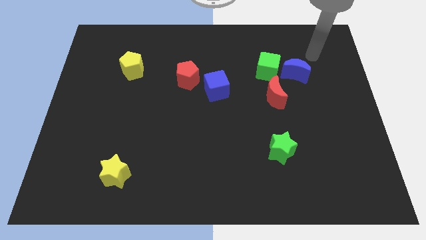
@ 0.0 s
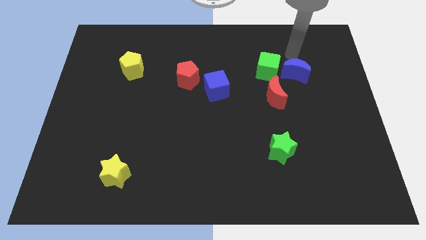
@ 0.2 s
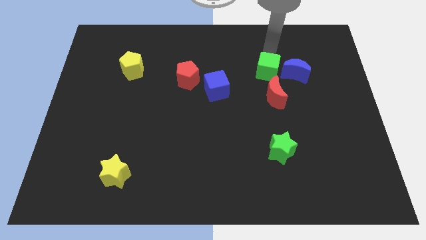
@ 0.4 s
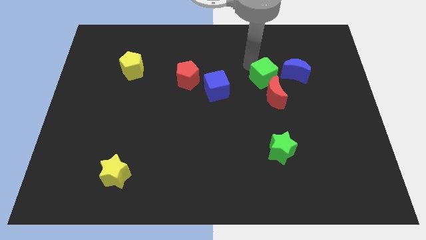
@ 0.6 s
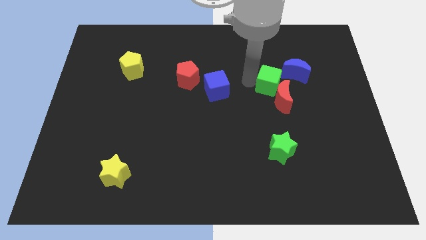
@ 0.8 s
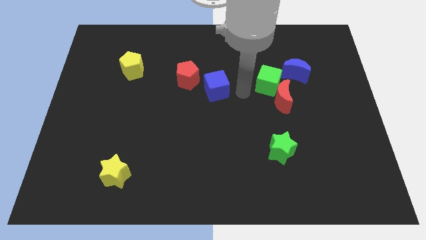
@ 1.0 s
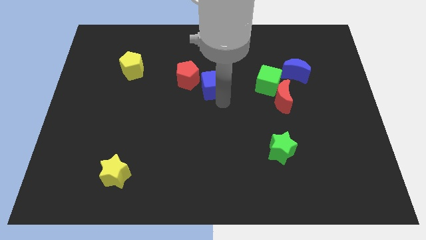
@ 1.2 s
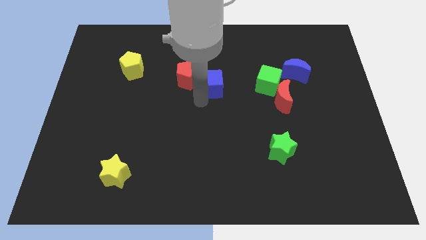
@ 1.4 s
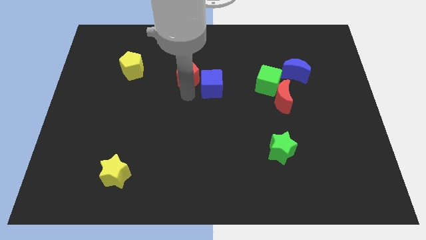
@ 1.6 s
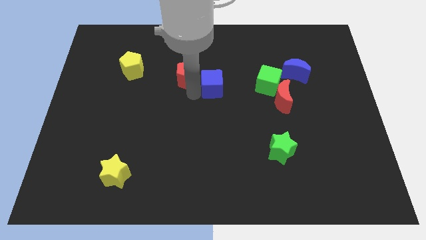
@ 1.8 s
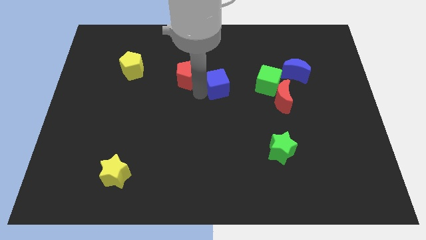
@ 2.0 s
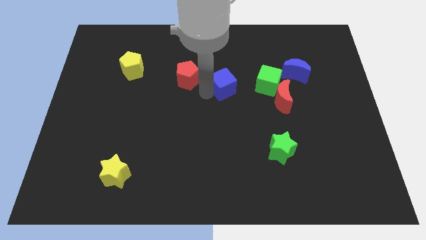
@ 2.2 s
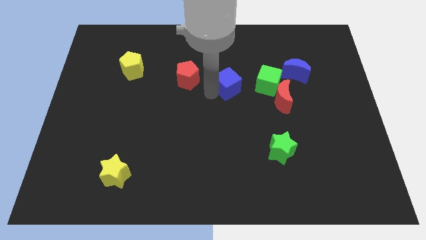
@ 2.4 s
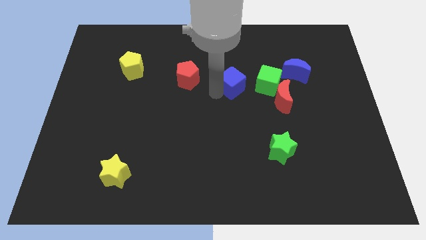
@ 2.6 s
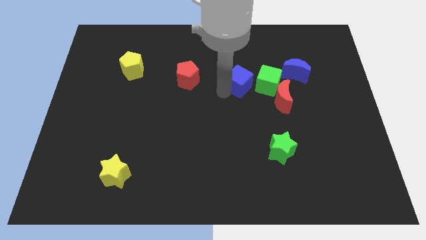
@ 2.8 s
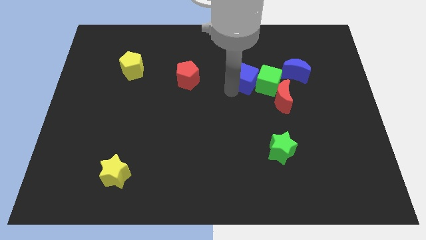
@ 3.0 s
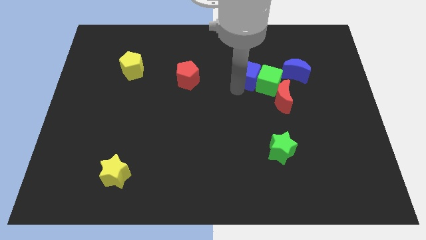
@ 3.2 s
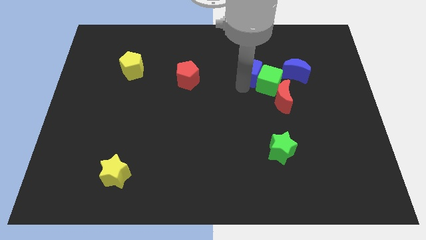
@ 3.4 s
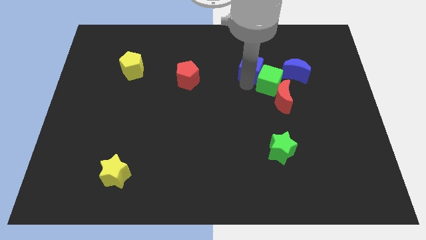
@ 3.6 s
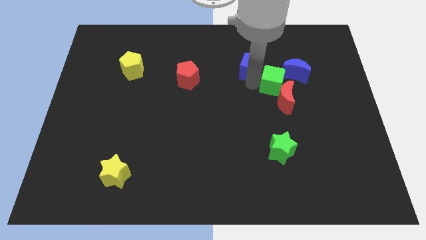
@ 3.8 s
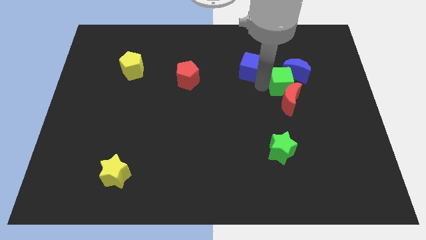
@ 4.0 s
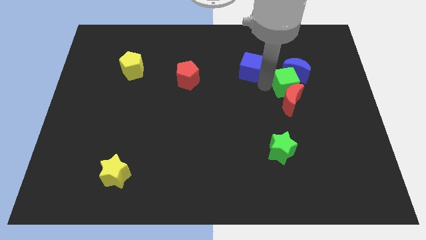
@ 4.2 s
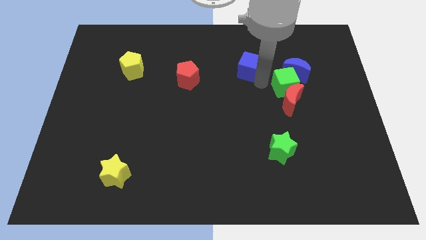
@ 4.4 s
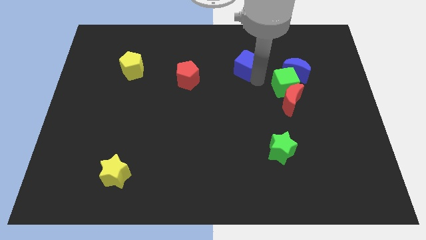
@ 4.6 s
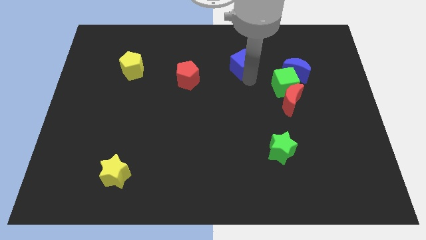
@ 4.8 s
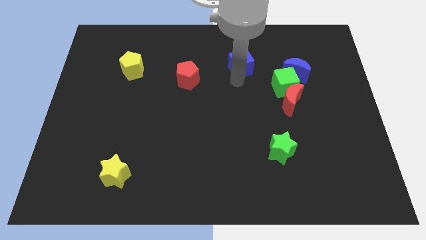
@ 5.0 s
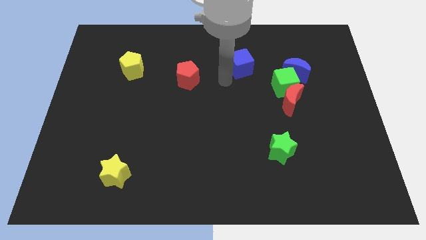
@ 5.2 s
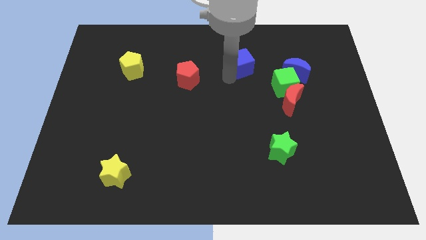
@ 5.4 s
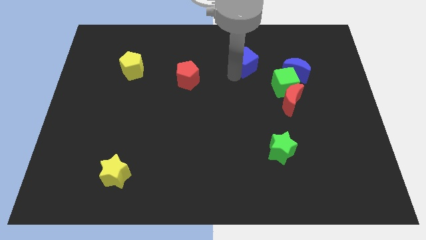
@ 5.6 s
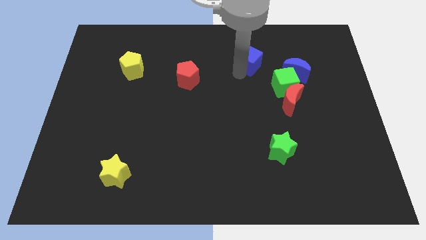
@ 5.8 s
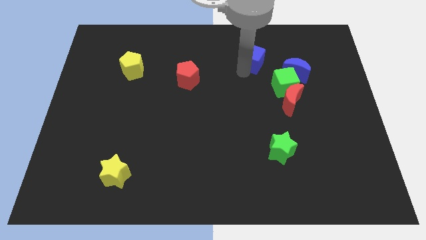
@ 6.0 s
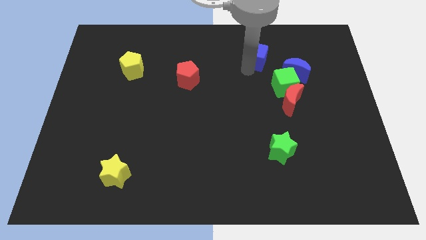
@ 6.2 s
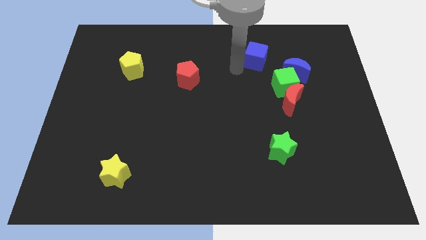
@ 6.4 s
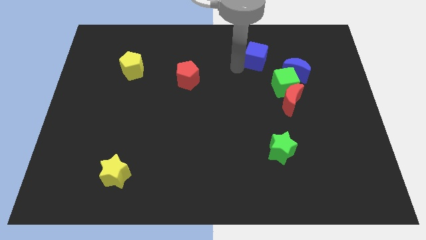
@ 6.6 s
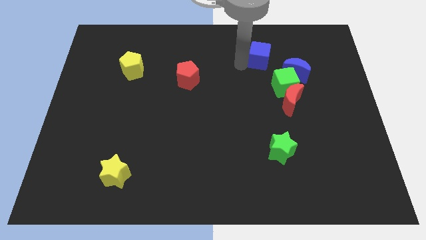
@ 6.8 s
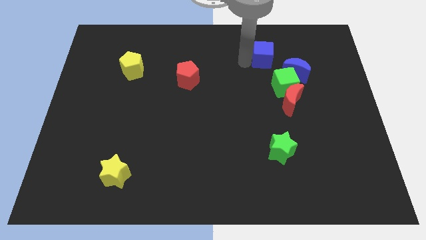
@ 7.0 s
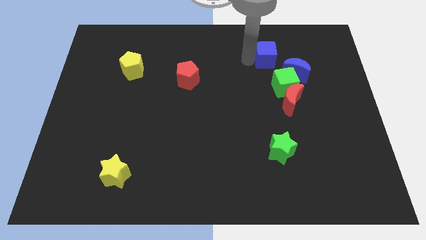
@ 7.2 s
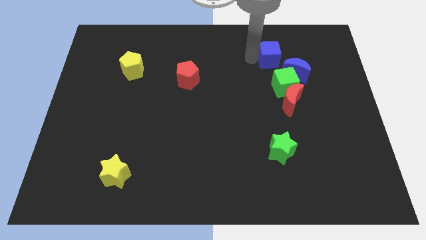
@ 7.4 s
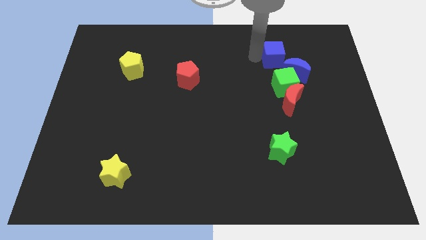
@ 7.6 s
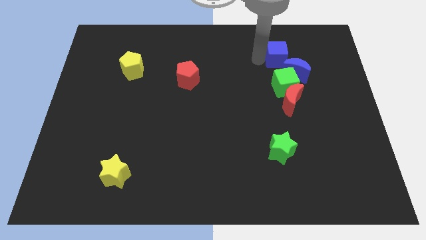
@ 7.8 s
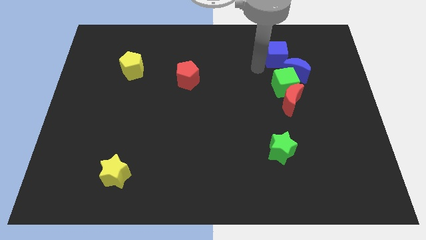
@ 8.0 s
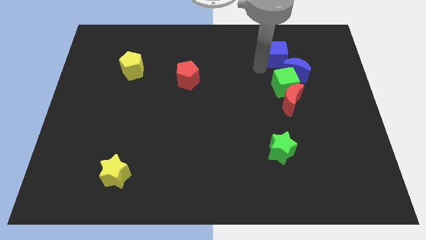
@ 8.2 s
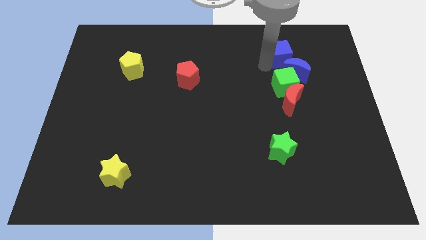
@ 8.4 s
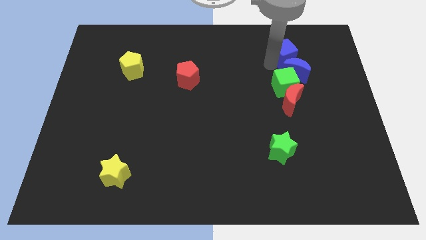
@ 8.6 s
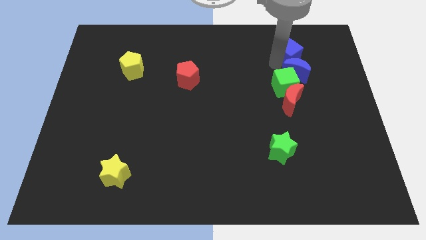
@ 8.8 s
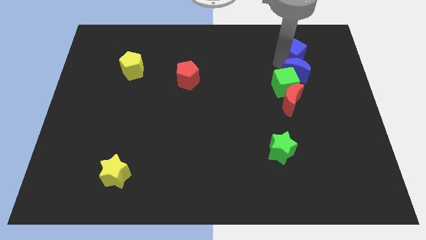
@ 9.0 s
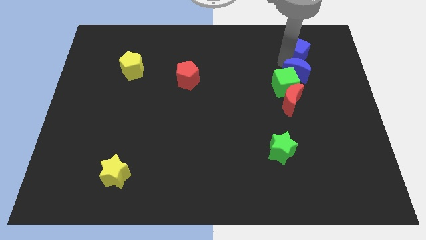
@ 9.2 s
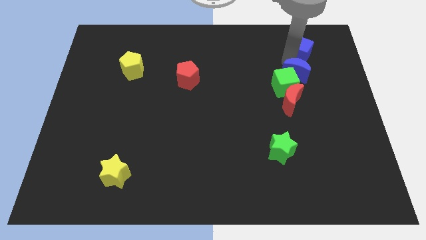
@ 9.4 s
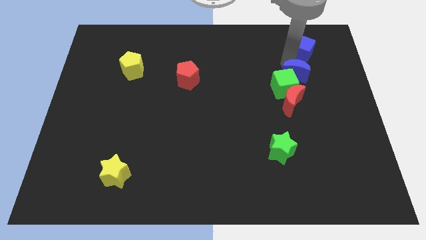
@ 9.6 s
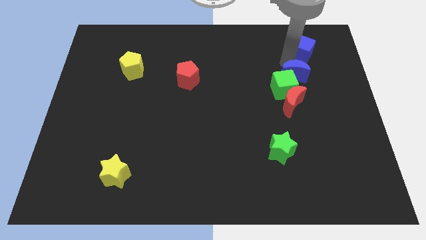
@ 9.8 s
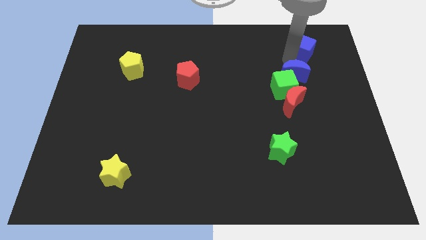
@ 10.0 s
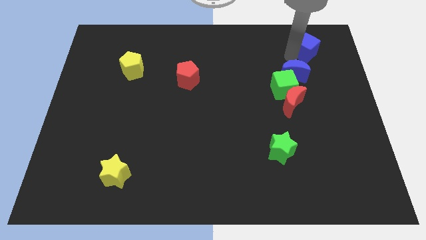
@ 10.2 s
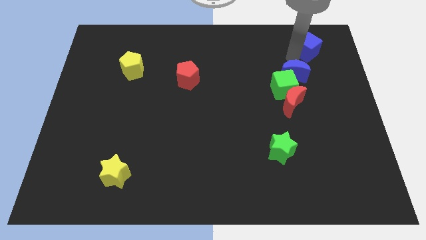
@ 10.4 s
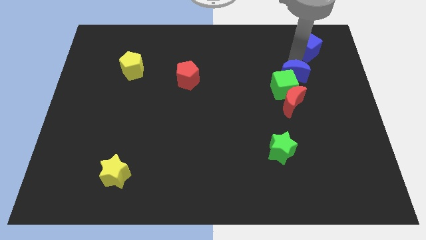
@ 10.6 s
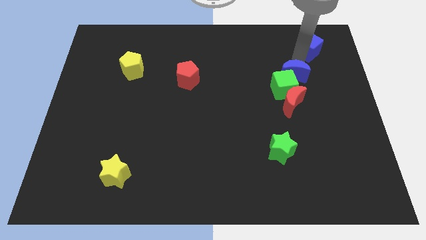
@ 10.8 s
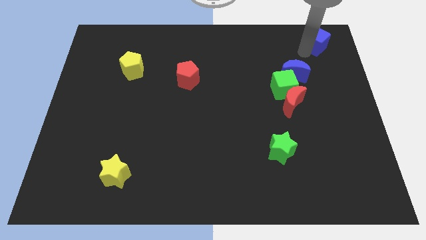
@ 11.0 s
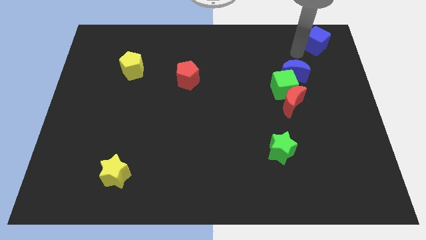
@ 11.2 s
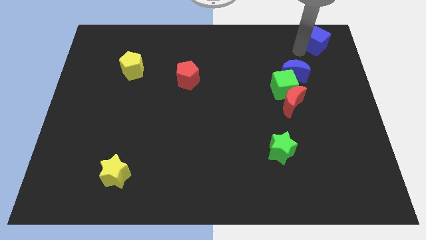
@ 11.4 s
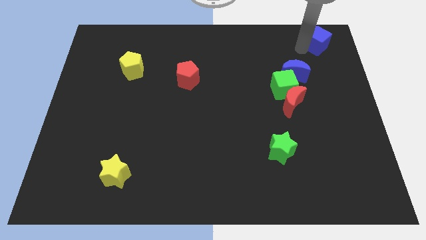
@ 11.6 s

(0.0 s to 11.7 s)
move the blue cube to the top right corner
